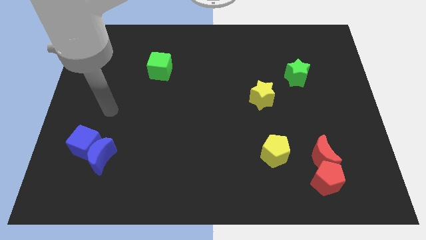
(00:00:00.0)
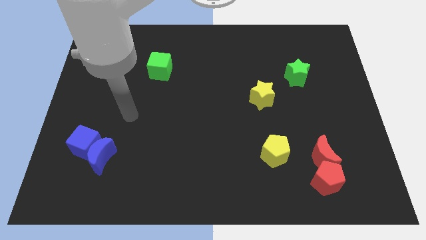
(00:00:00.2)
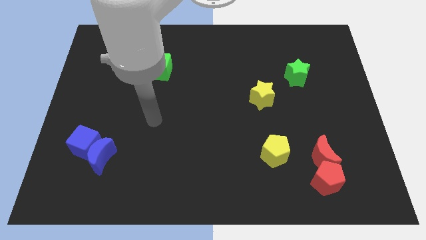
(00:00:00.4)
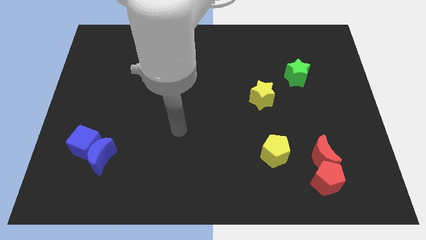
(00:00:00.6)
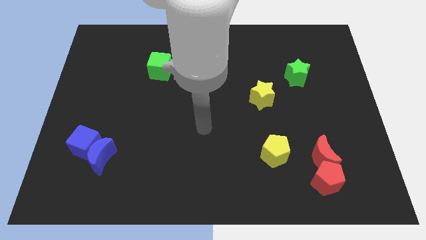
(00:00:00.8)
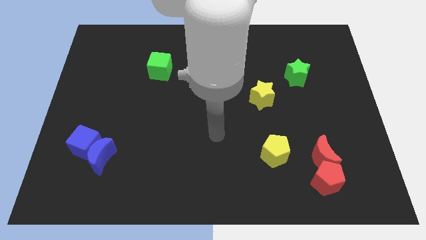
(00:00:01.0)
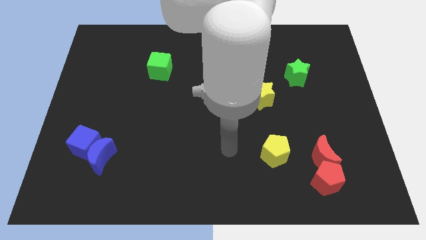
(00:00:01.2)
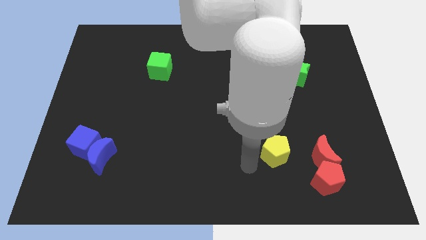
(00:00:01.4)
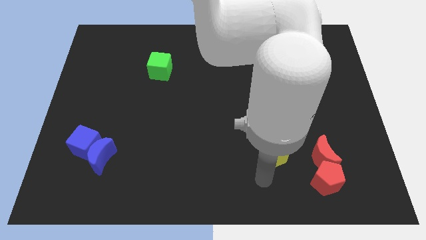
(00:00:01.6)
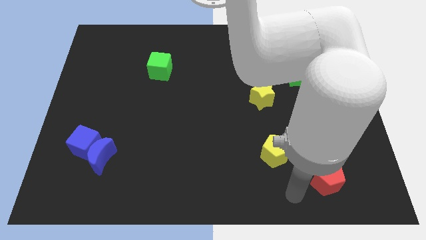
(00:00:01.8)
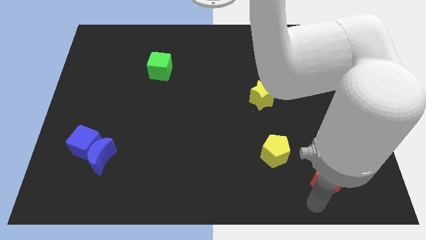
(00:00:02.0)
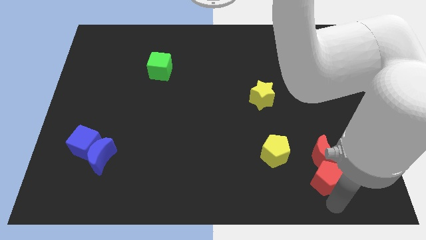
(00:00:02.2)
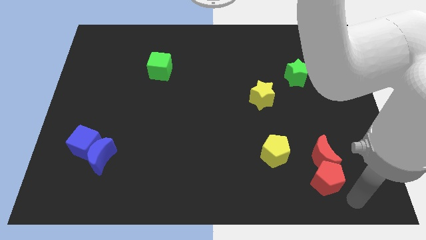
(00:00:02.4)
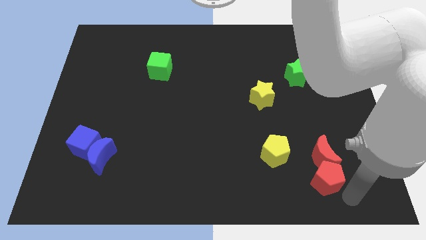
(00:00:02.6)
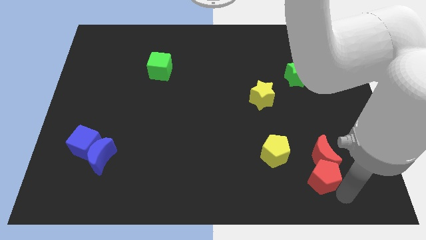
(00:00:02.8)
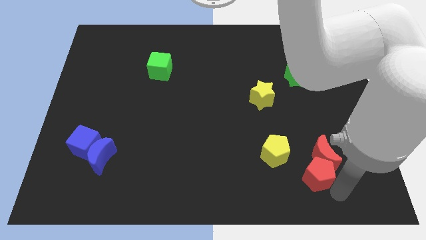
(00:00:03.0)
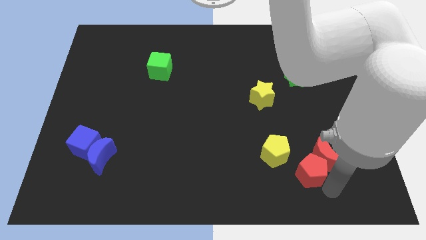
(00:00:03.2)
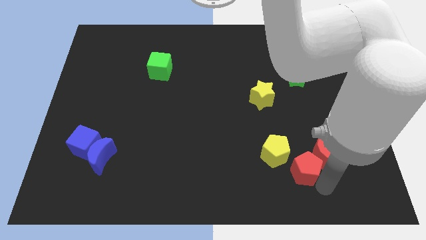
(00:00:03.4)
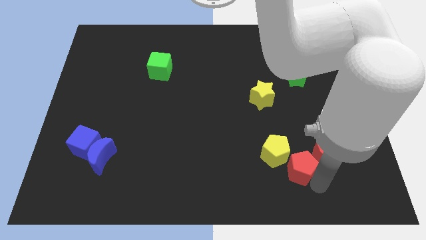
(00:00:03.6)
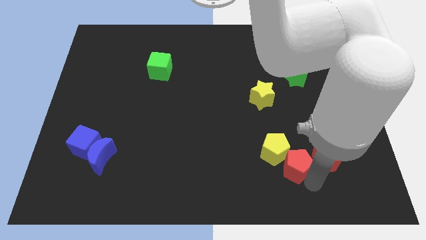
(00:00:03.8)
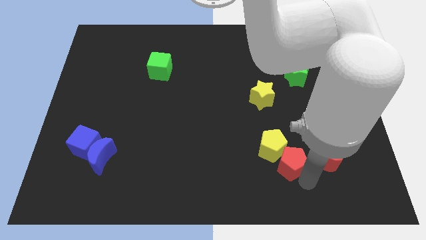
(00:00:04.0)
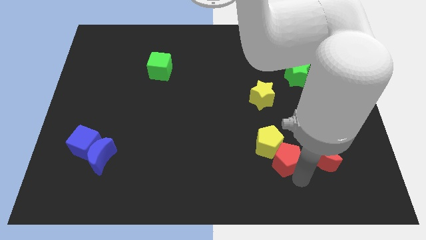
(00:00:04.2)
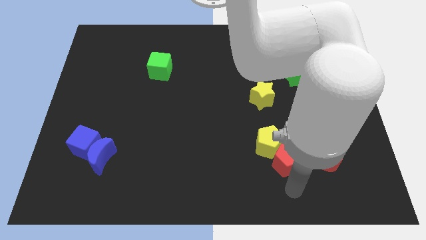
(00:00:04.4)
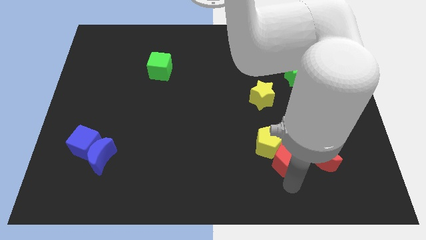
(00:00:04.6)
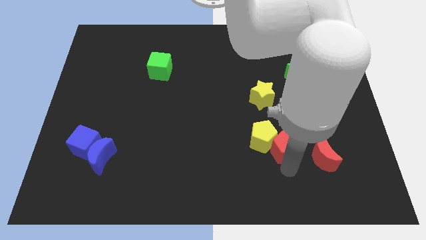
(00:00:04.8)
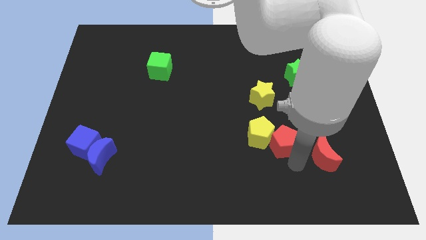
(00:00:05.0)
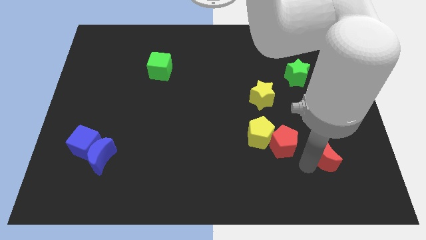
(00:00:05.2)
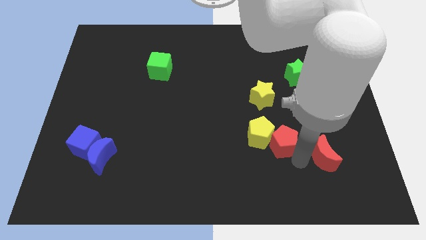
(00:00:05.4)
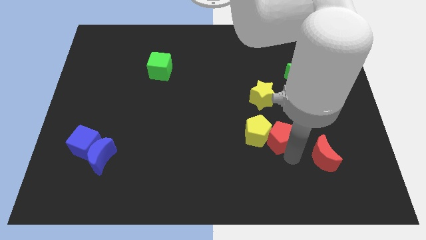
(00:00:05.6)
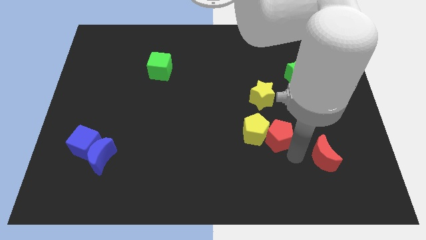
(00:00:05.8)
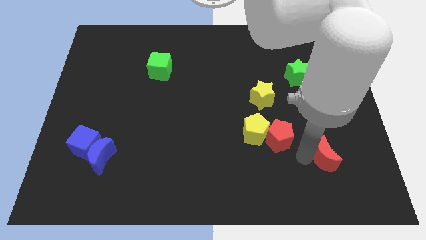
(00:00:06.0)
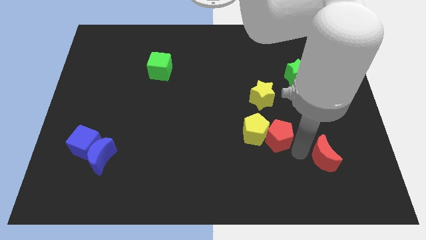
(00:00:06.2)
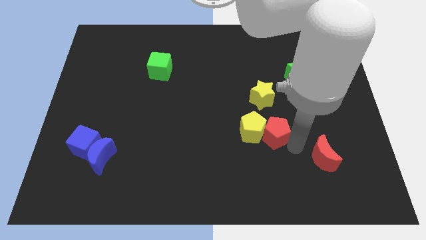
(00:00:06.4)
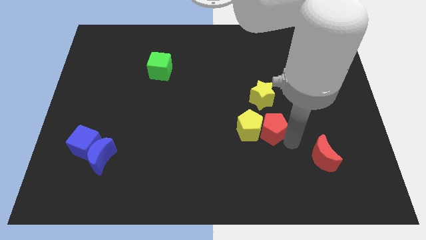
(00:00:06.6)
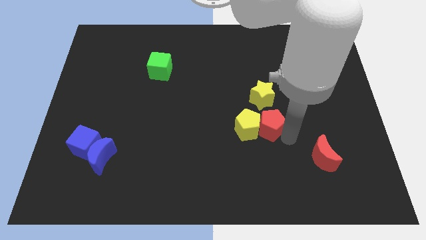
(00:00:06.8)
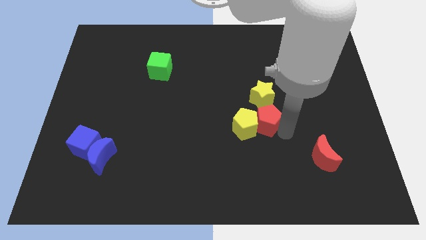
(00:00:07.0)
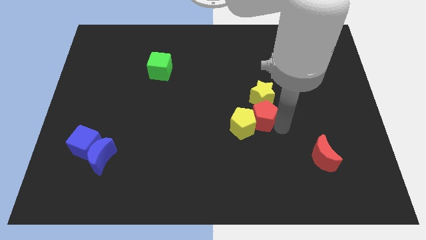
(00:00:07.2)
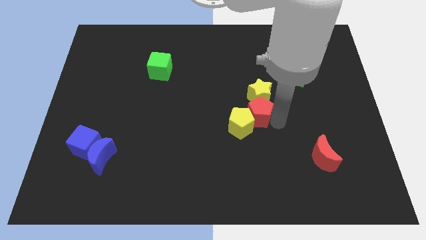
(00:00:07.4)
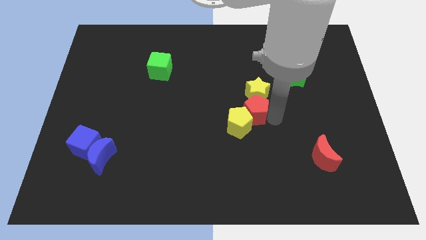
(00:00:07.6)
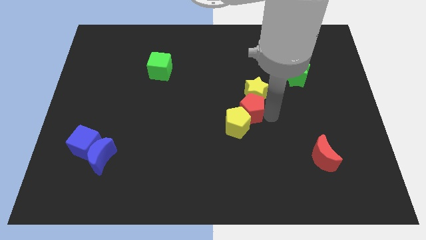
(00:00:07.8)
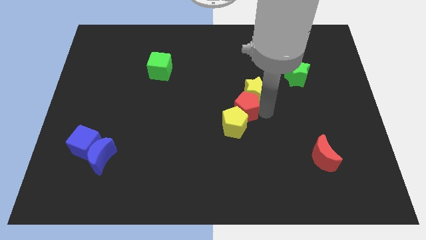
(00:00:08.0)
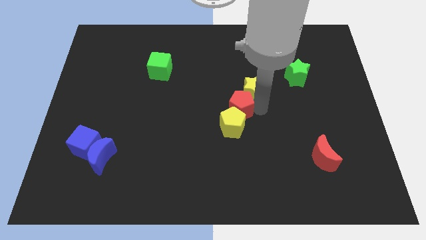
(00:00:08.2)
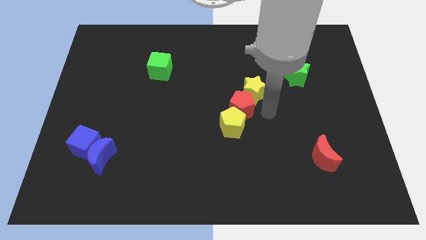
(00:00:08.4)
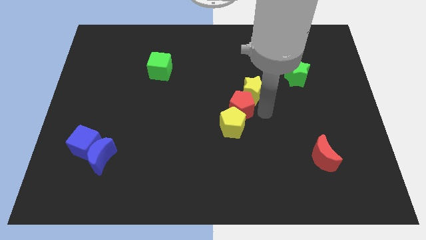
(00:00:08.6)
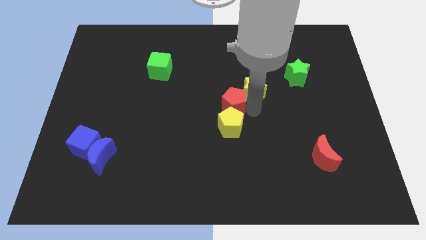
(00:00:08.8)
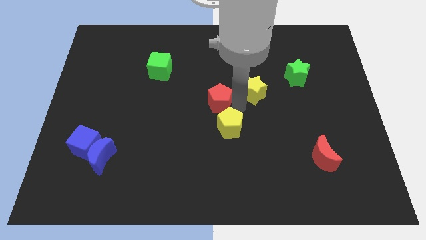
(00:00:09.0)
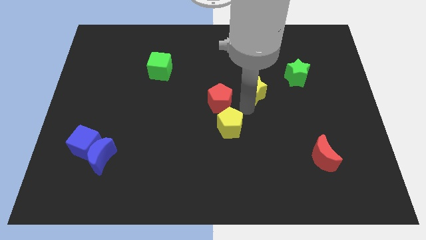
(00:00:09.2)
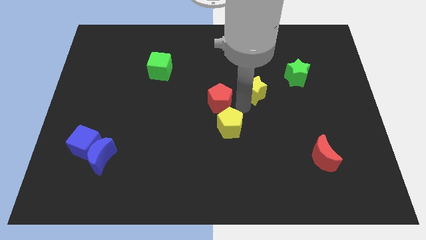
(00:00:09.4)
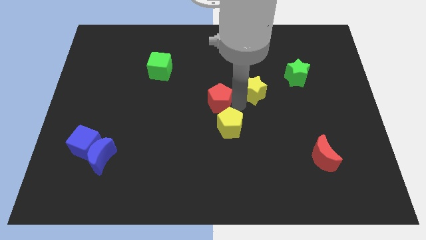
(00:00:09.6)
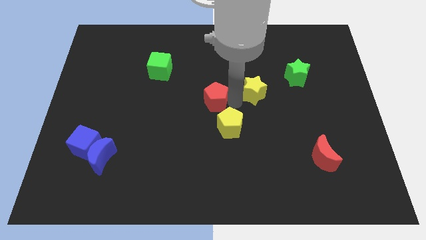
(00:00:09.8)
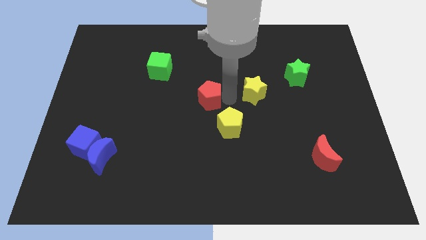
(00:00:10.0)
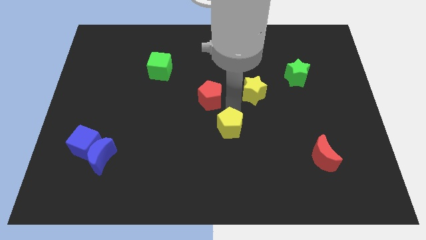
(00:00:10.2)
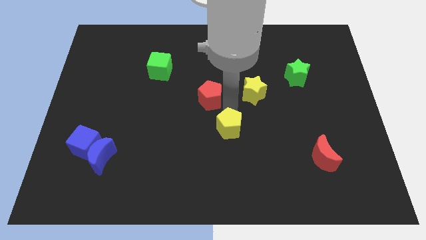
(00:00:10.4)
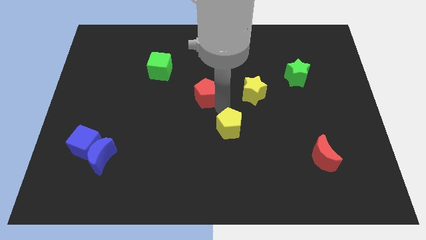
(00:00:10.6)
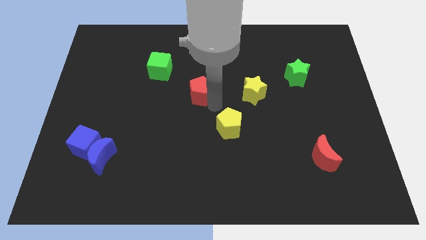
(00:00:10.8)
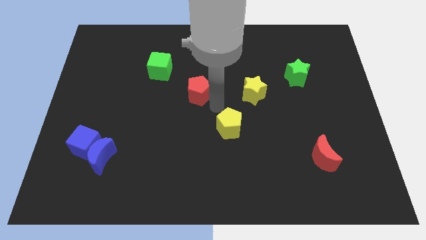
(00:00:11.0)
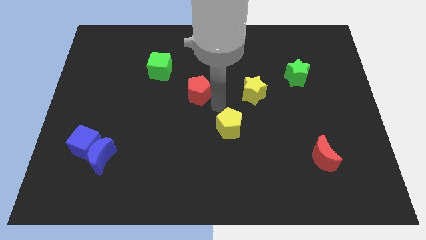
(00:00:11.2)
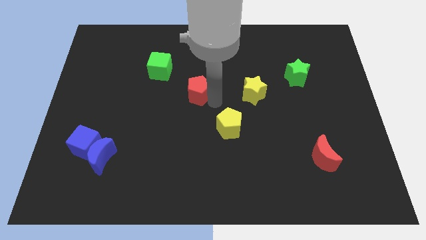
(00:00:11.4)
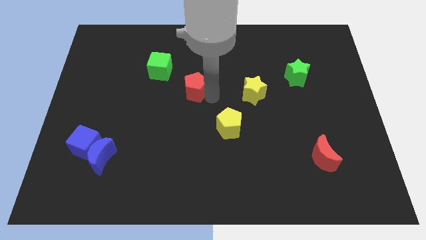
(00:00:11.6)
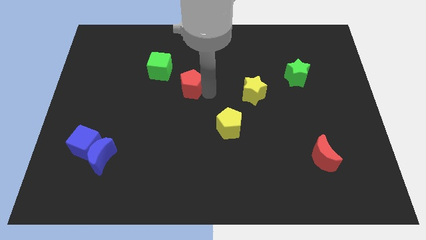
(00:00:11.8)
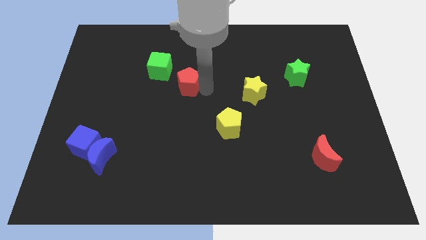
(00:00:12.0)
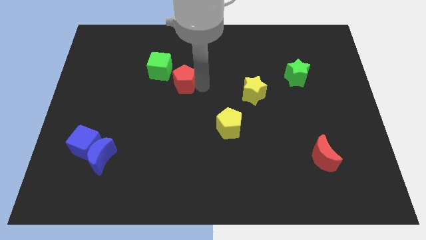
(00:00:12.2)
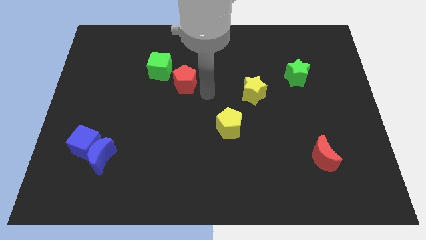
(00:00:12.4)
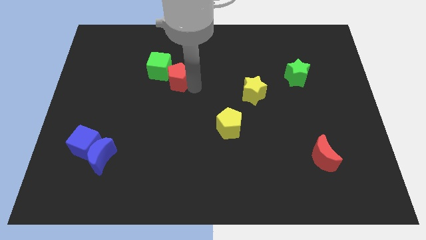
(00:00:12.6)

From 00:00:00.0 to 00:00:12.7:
push the red pentagon next to the green cube

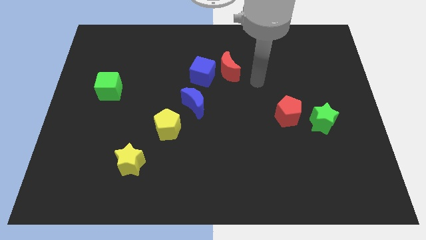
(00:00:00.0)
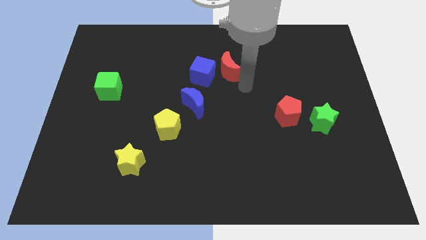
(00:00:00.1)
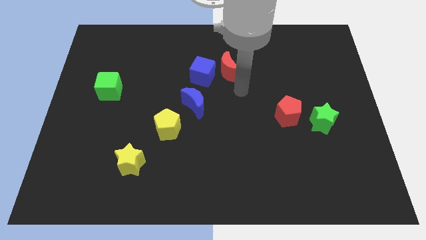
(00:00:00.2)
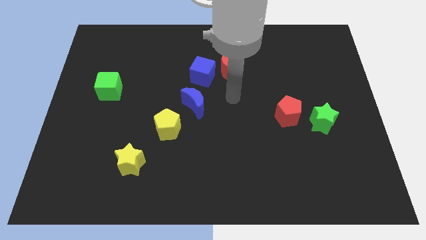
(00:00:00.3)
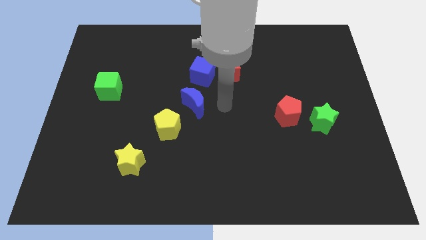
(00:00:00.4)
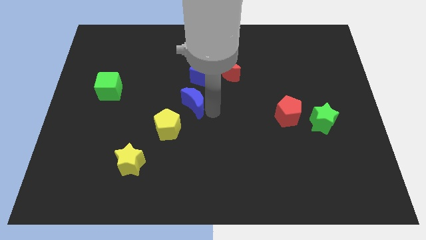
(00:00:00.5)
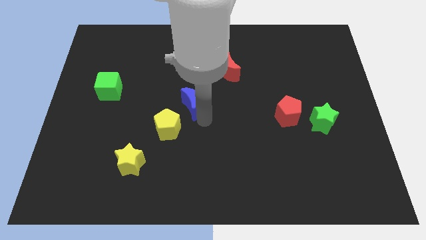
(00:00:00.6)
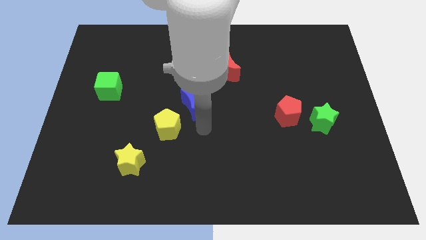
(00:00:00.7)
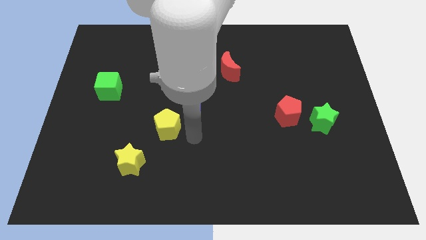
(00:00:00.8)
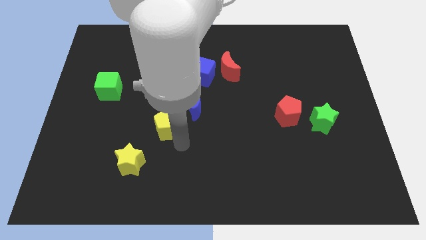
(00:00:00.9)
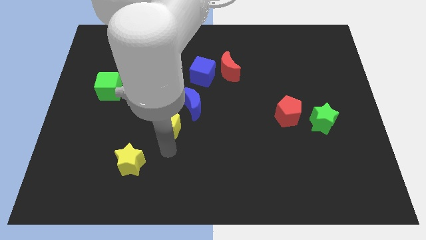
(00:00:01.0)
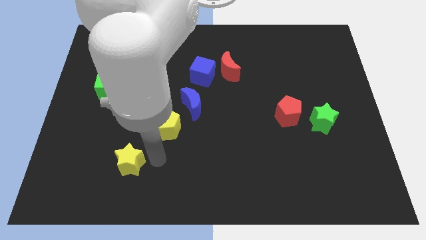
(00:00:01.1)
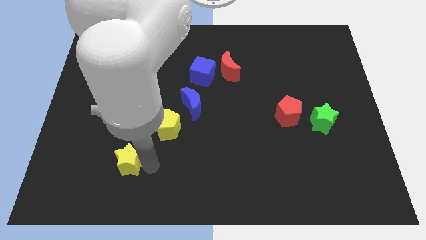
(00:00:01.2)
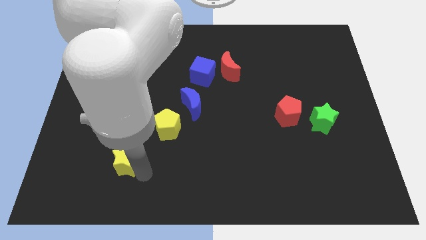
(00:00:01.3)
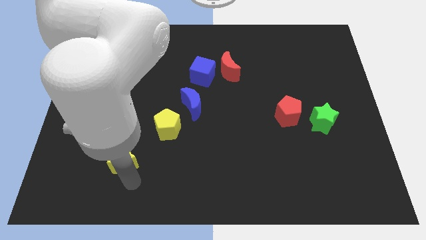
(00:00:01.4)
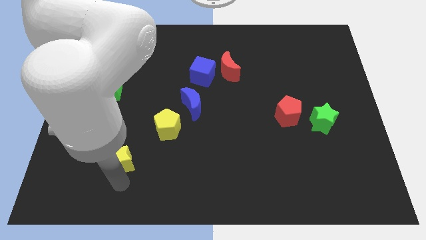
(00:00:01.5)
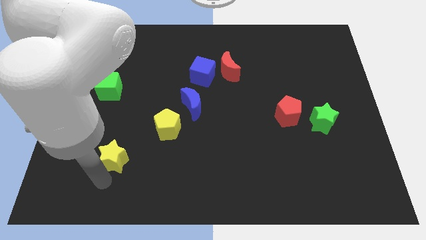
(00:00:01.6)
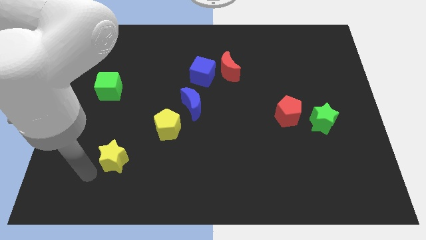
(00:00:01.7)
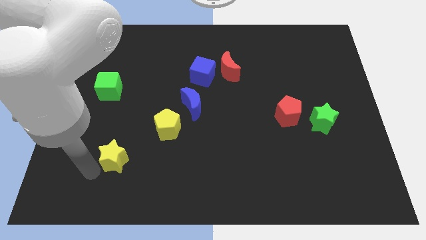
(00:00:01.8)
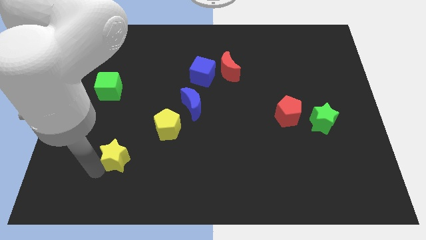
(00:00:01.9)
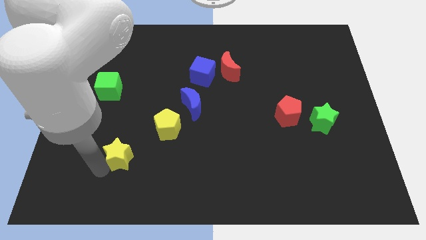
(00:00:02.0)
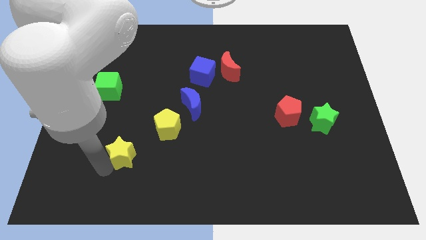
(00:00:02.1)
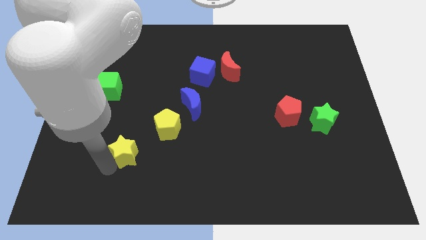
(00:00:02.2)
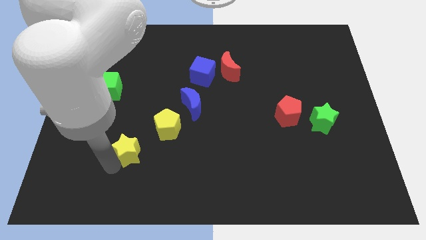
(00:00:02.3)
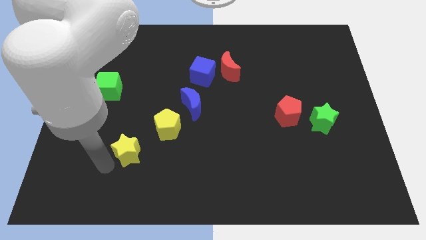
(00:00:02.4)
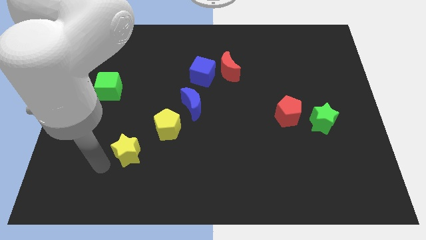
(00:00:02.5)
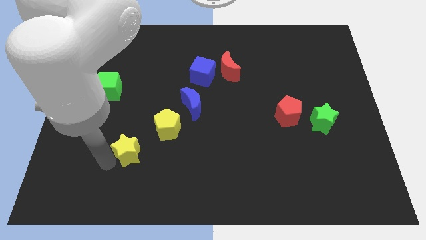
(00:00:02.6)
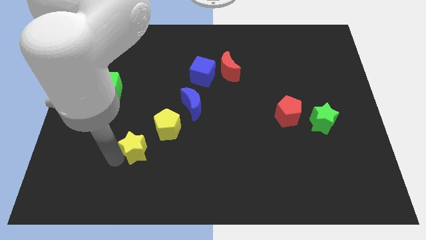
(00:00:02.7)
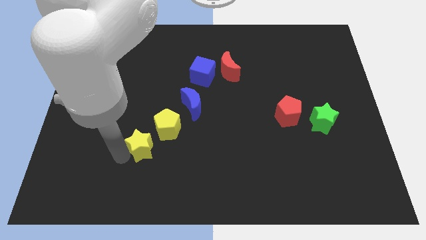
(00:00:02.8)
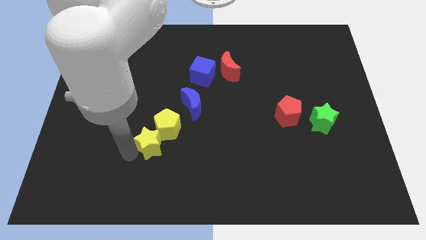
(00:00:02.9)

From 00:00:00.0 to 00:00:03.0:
slide the yellow star next to the yellow pentagon
